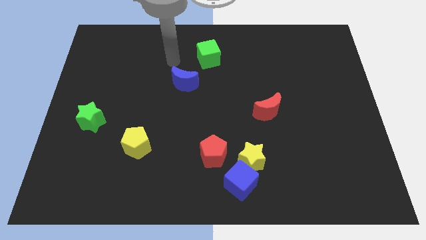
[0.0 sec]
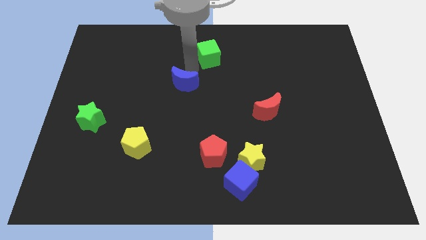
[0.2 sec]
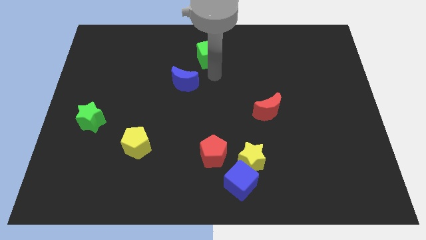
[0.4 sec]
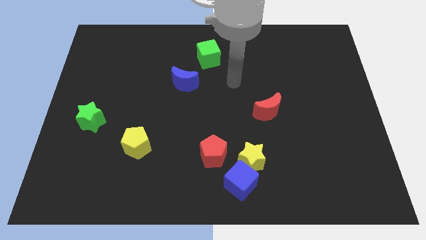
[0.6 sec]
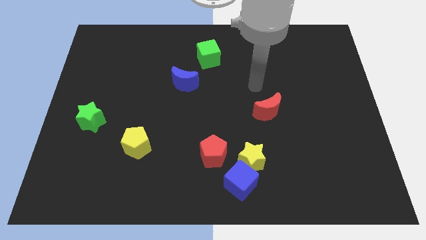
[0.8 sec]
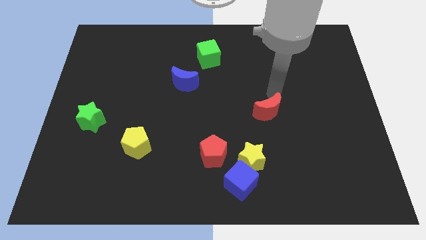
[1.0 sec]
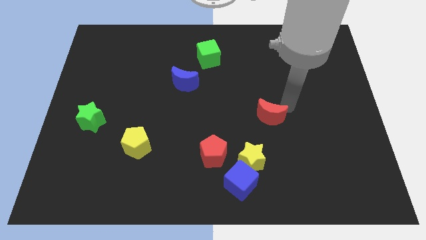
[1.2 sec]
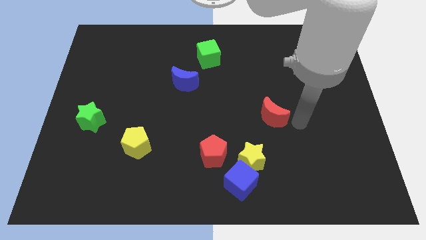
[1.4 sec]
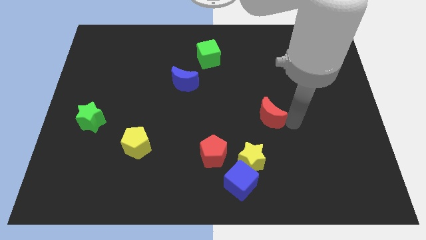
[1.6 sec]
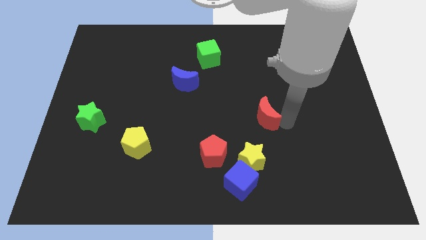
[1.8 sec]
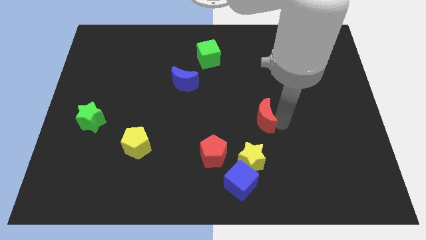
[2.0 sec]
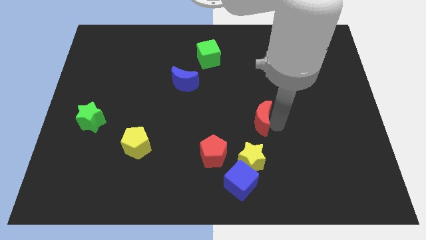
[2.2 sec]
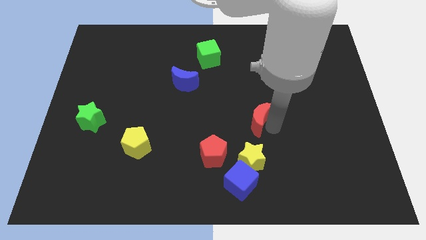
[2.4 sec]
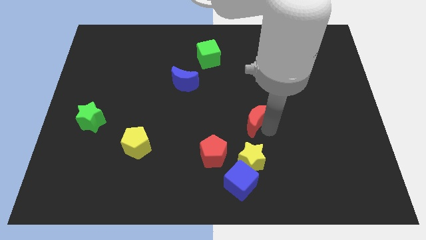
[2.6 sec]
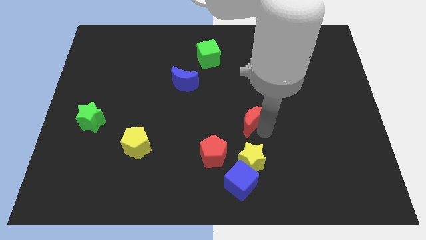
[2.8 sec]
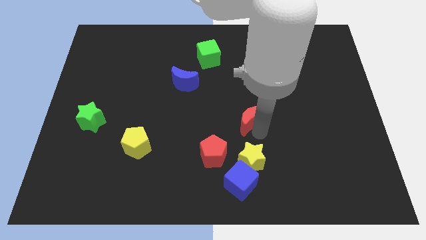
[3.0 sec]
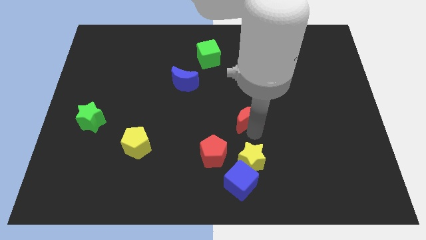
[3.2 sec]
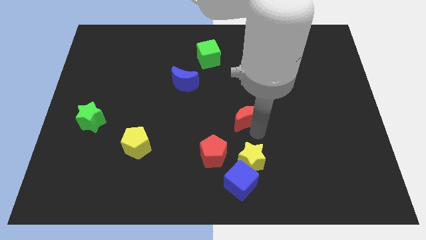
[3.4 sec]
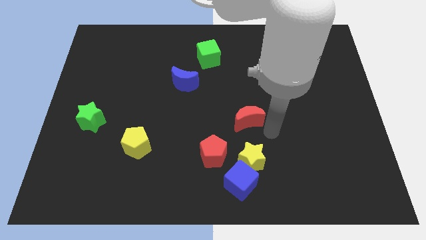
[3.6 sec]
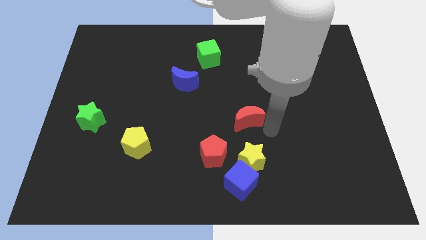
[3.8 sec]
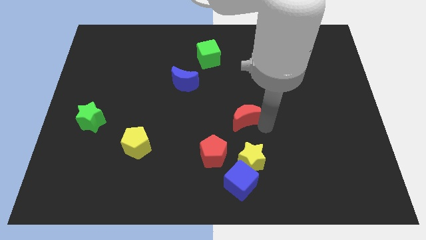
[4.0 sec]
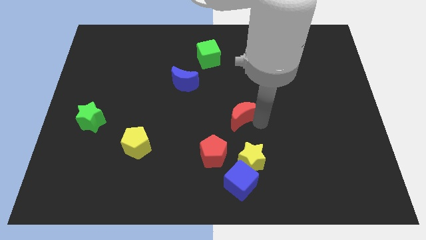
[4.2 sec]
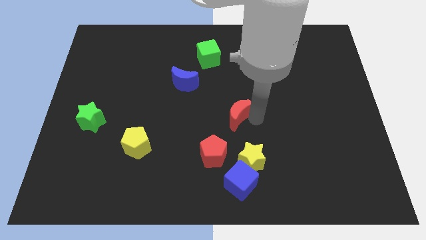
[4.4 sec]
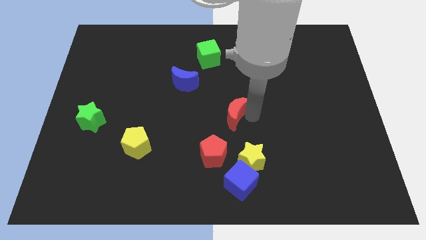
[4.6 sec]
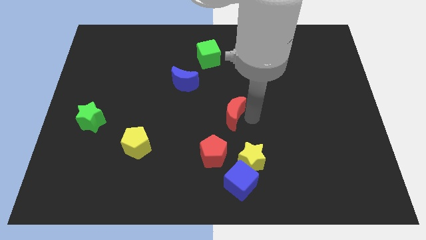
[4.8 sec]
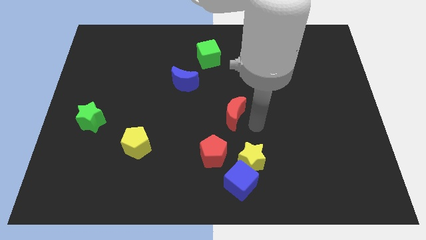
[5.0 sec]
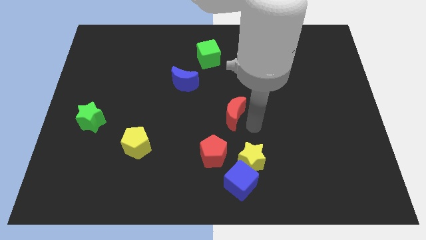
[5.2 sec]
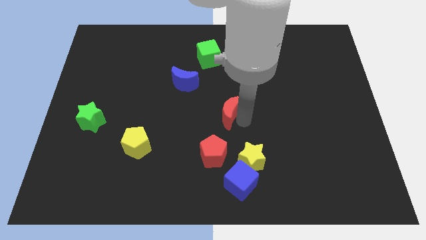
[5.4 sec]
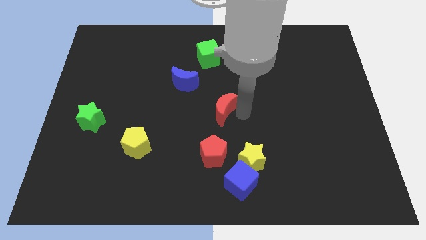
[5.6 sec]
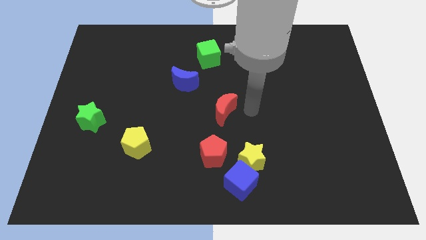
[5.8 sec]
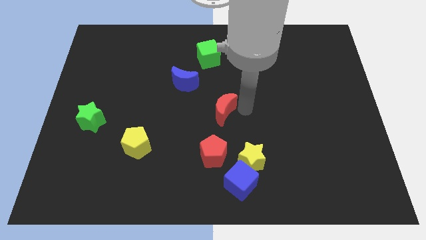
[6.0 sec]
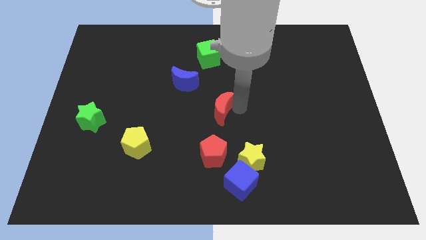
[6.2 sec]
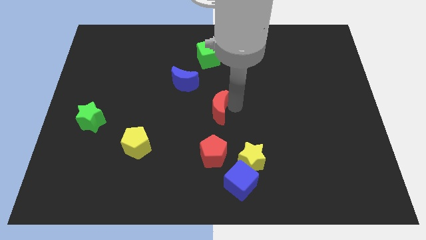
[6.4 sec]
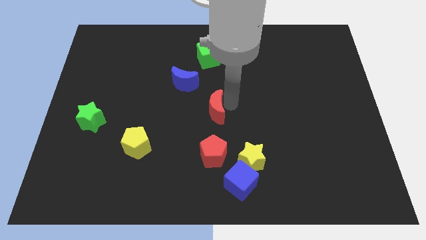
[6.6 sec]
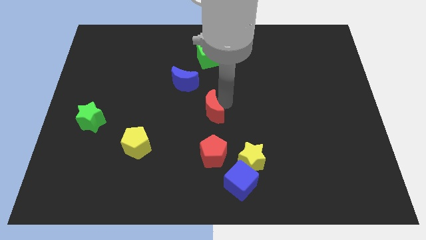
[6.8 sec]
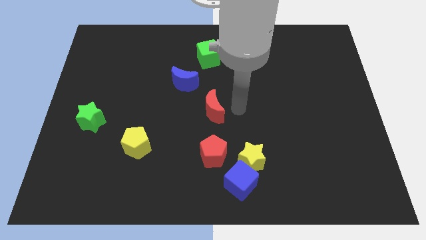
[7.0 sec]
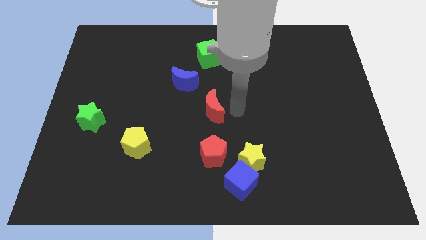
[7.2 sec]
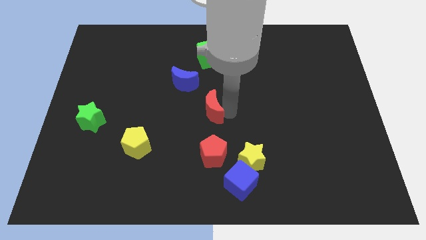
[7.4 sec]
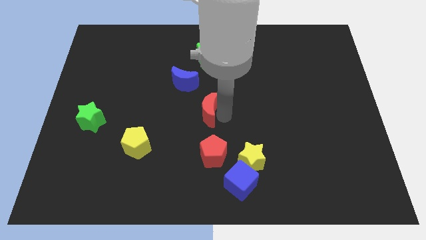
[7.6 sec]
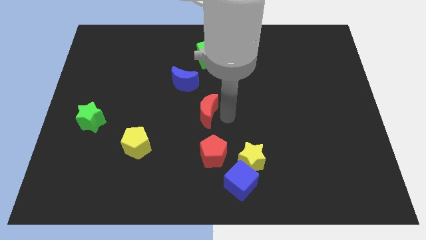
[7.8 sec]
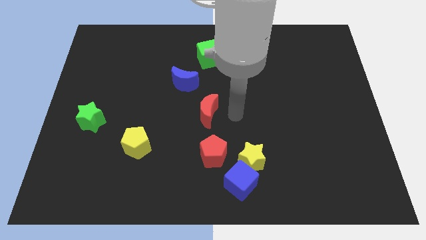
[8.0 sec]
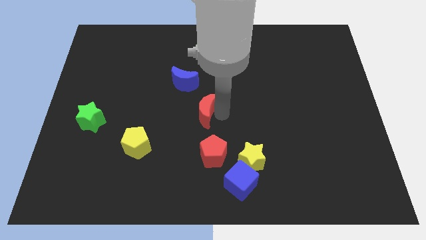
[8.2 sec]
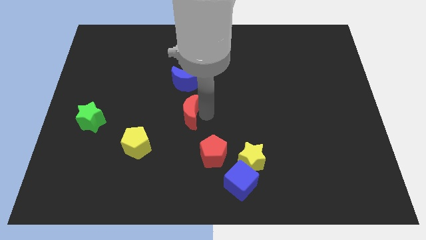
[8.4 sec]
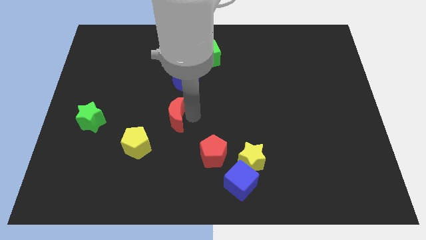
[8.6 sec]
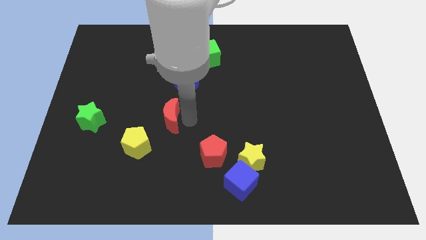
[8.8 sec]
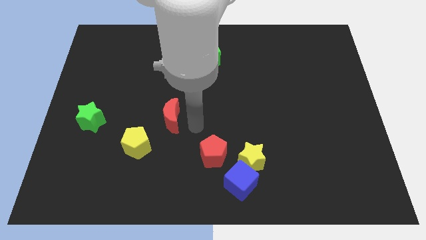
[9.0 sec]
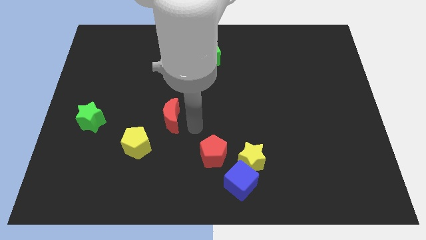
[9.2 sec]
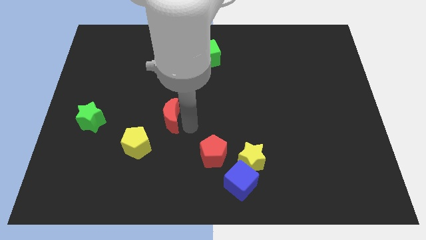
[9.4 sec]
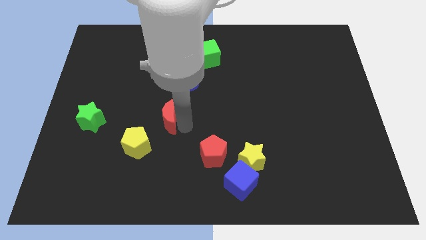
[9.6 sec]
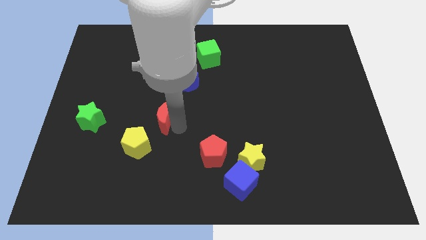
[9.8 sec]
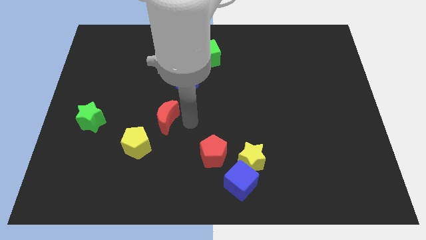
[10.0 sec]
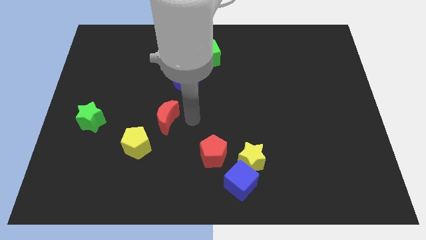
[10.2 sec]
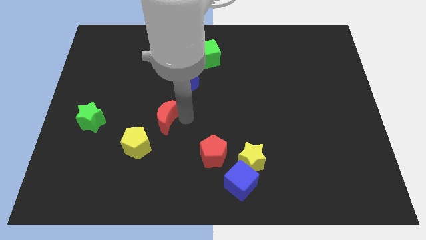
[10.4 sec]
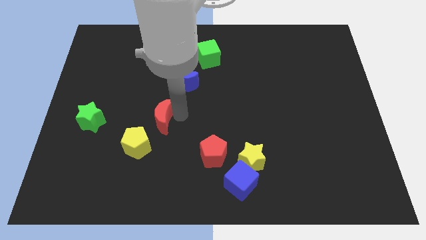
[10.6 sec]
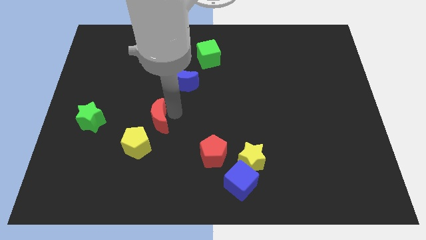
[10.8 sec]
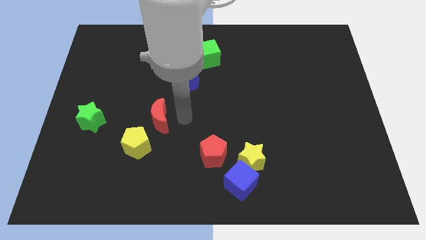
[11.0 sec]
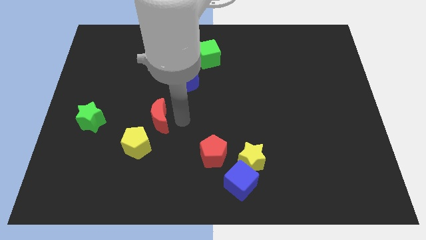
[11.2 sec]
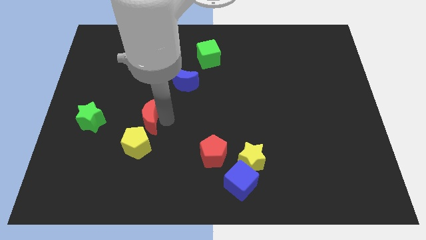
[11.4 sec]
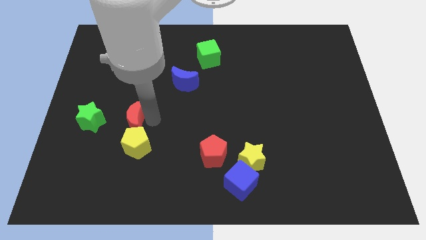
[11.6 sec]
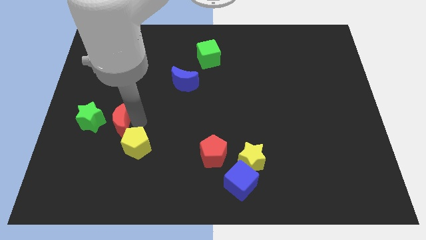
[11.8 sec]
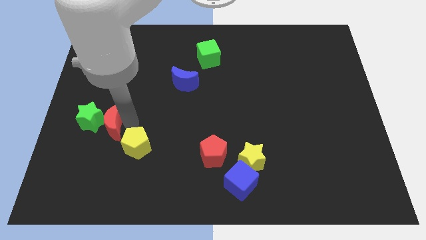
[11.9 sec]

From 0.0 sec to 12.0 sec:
push the red moon next to the green star

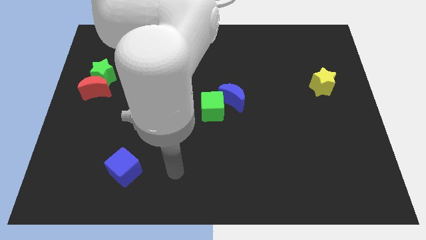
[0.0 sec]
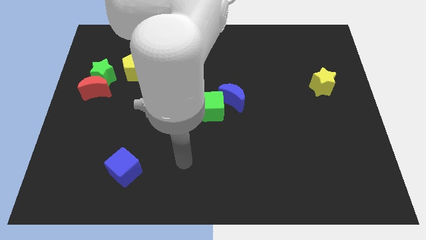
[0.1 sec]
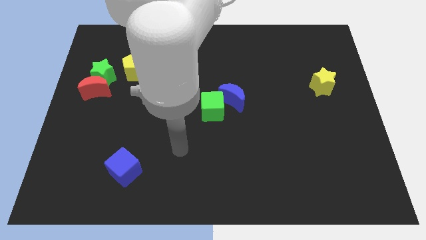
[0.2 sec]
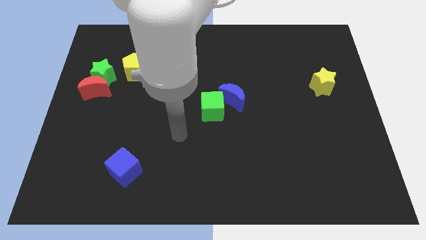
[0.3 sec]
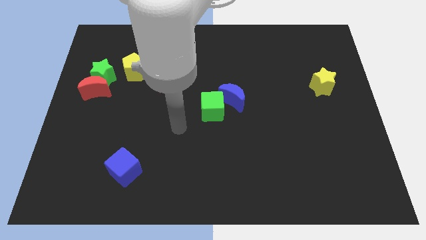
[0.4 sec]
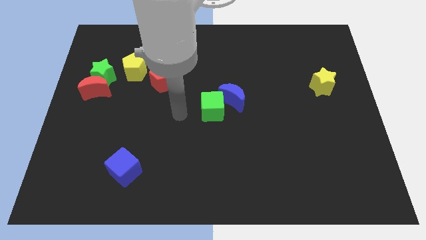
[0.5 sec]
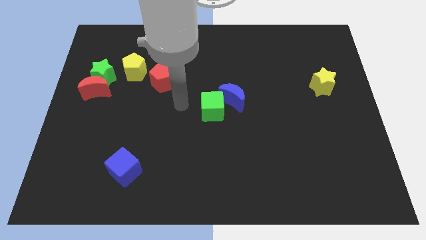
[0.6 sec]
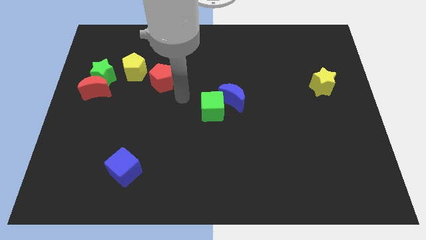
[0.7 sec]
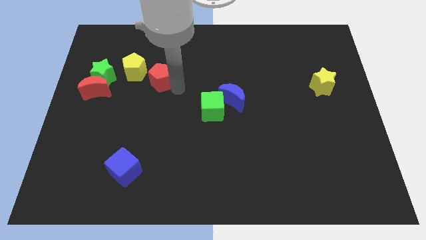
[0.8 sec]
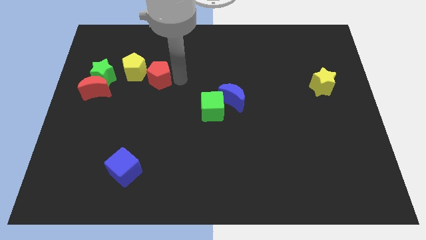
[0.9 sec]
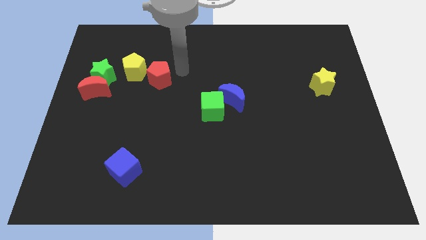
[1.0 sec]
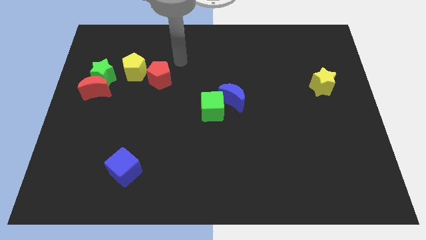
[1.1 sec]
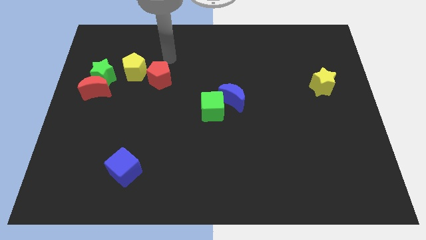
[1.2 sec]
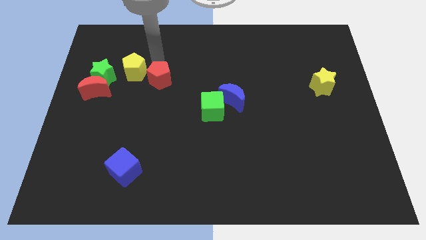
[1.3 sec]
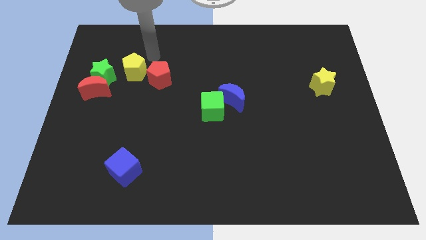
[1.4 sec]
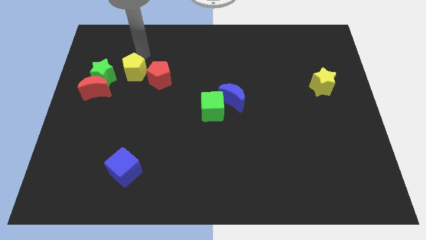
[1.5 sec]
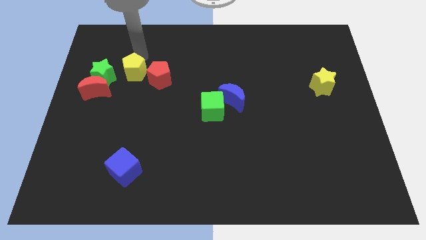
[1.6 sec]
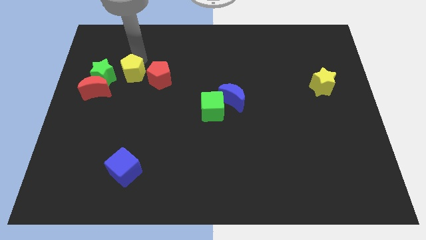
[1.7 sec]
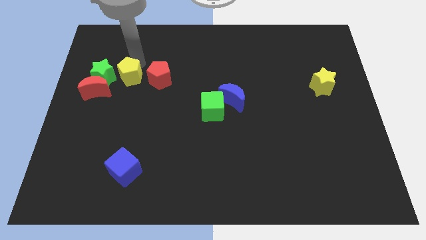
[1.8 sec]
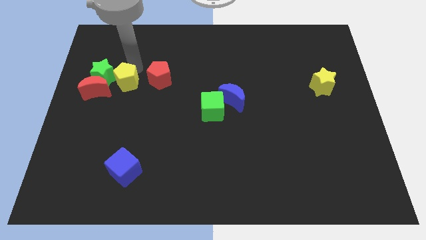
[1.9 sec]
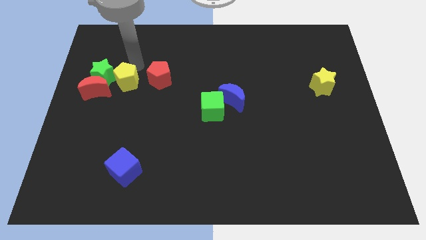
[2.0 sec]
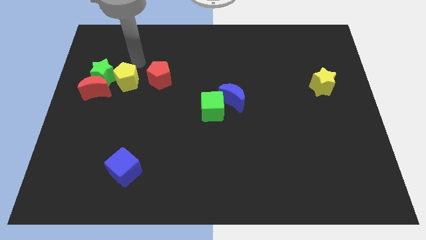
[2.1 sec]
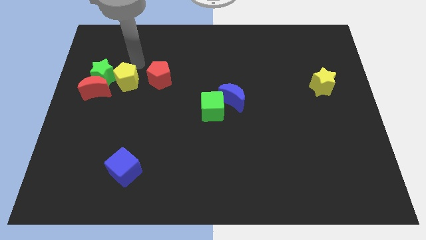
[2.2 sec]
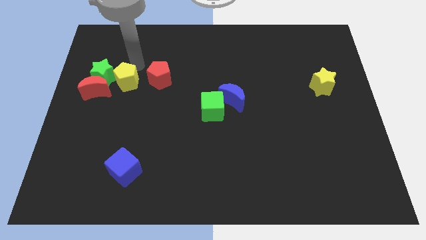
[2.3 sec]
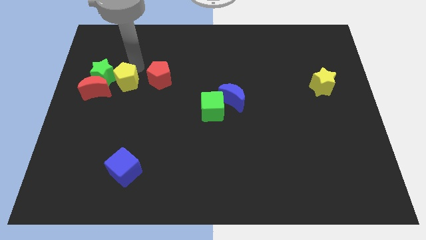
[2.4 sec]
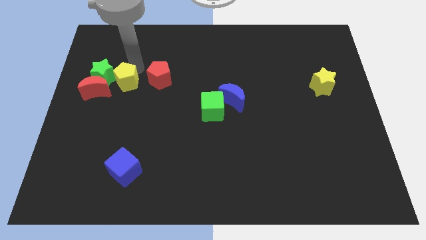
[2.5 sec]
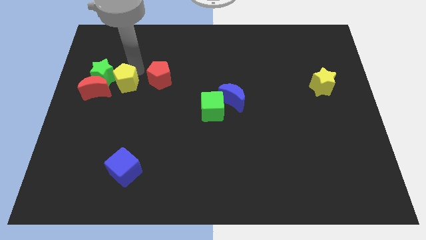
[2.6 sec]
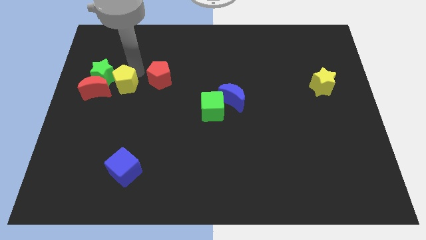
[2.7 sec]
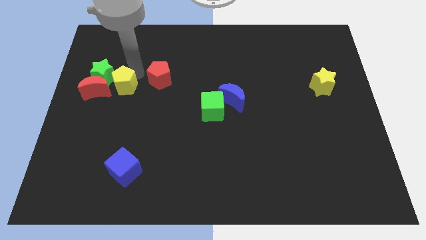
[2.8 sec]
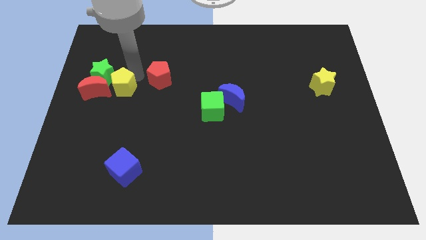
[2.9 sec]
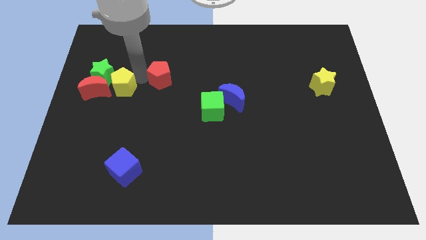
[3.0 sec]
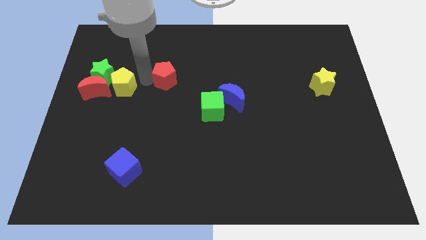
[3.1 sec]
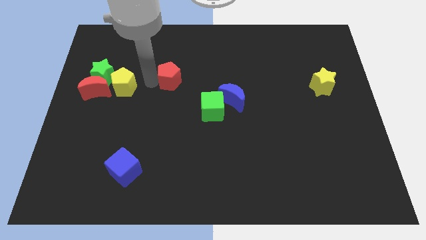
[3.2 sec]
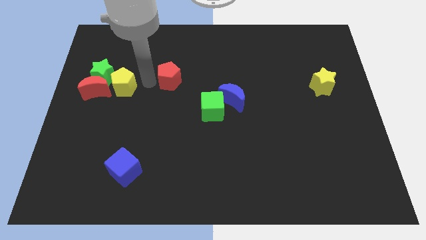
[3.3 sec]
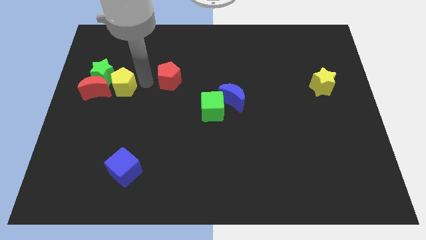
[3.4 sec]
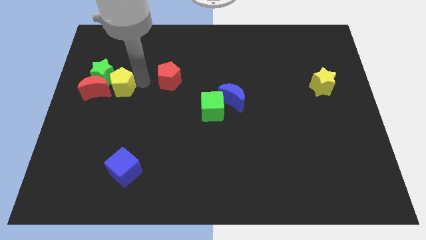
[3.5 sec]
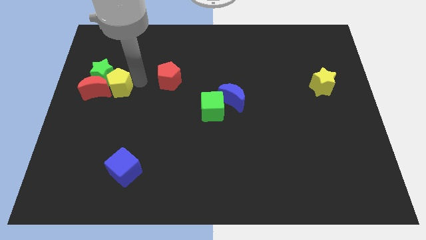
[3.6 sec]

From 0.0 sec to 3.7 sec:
put the yellow pentagon close to the red moon
